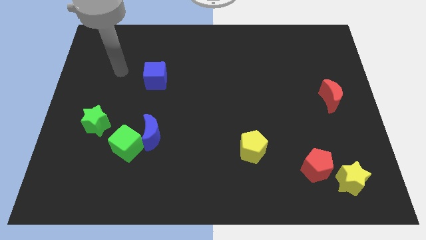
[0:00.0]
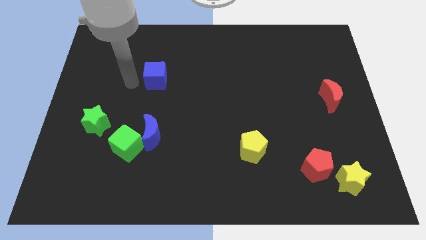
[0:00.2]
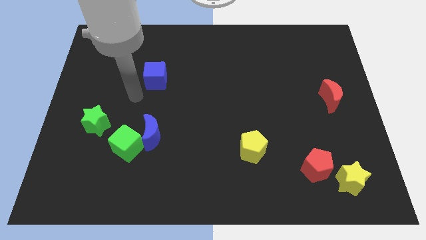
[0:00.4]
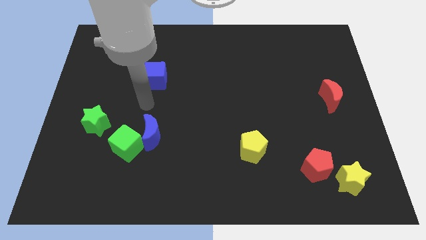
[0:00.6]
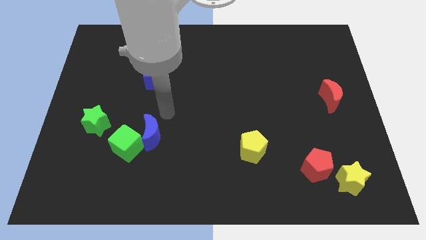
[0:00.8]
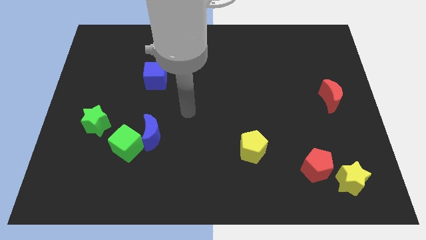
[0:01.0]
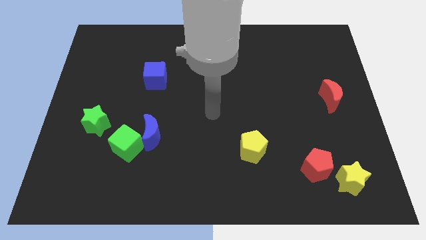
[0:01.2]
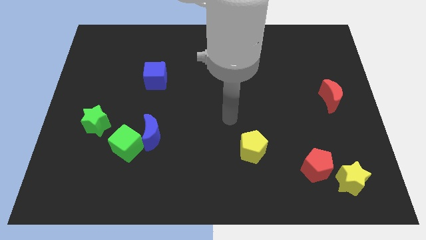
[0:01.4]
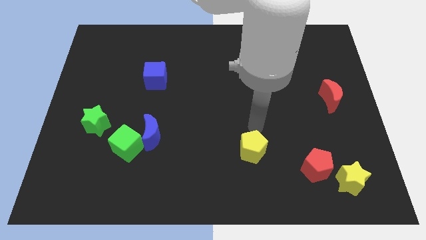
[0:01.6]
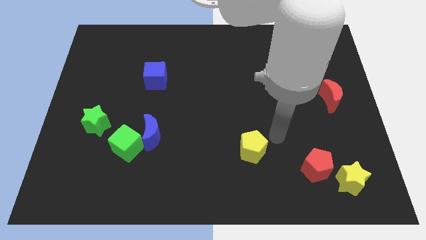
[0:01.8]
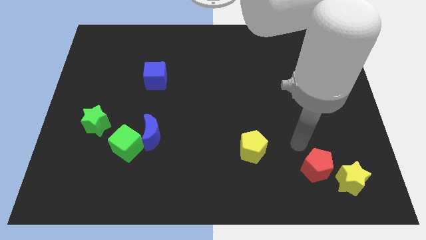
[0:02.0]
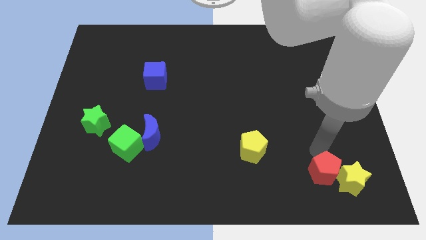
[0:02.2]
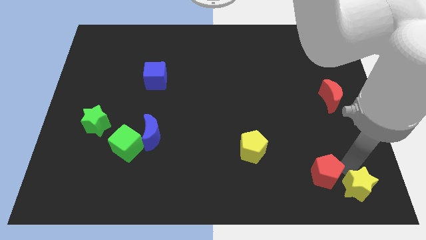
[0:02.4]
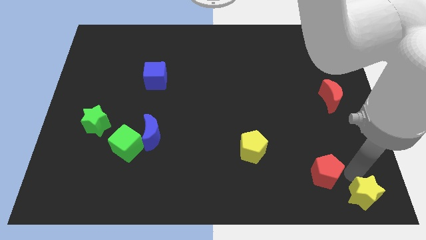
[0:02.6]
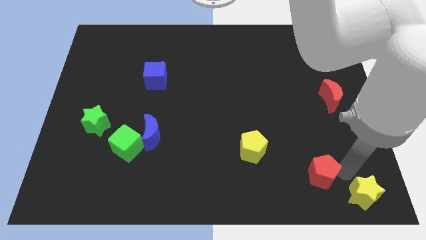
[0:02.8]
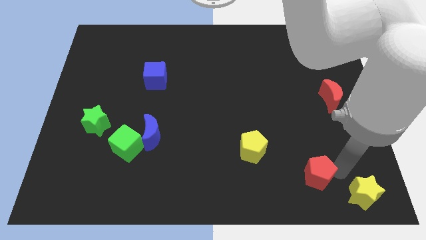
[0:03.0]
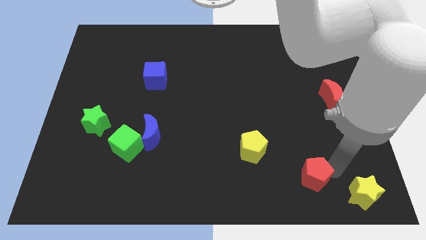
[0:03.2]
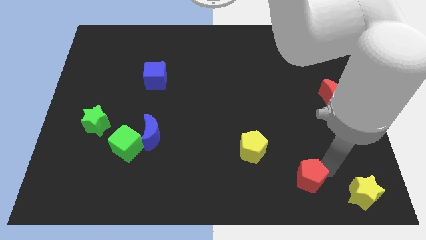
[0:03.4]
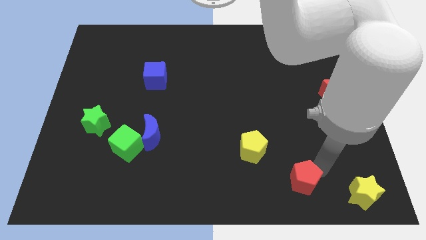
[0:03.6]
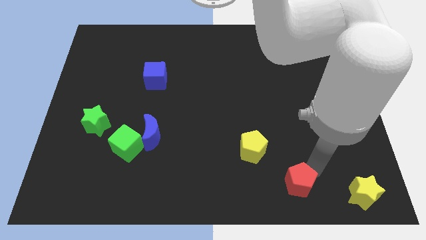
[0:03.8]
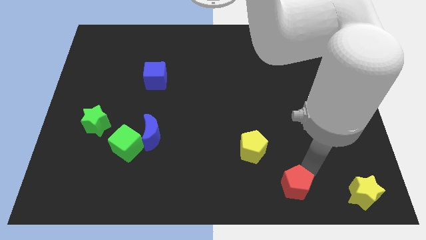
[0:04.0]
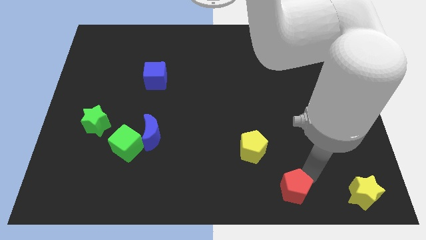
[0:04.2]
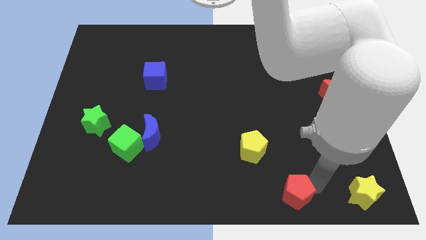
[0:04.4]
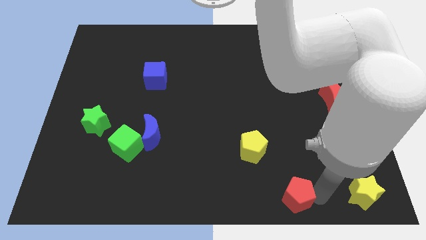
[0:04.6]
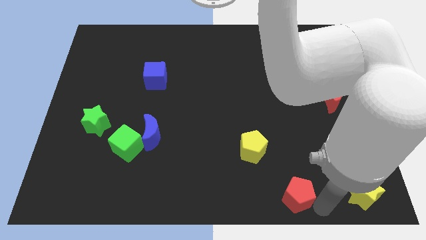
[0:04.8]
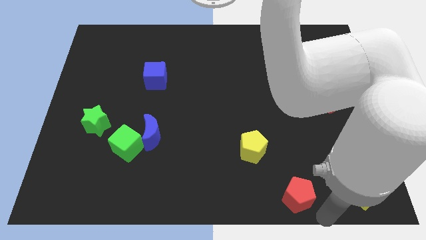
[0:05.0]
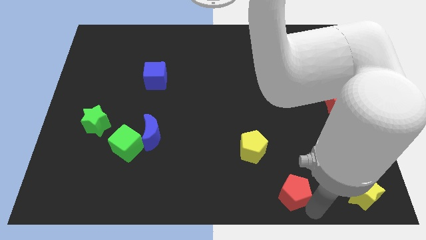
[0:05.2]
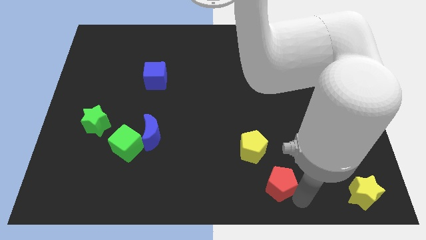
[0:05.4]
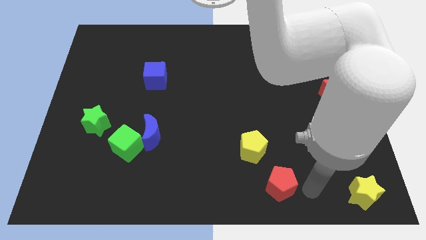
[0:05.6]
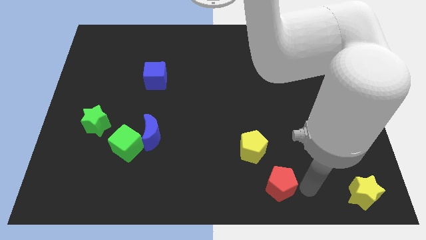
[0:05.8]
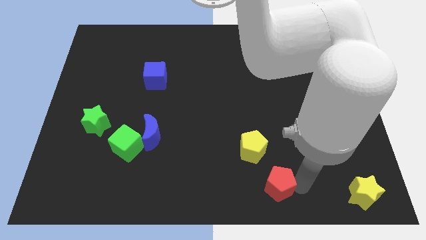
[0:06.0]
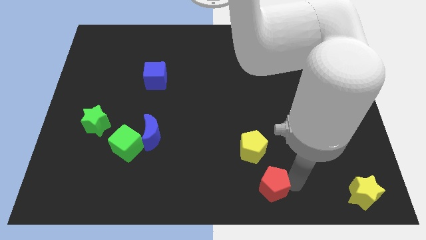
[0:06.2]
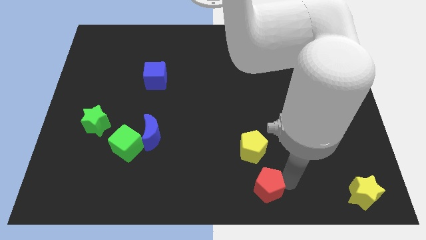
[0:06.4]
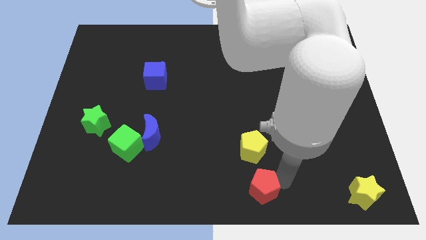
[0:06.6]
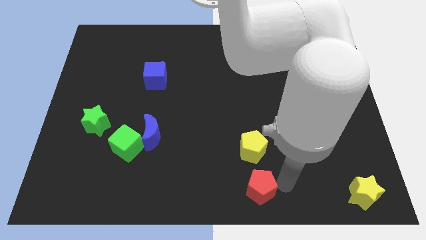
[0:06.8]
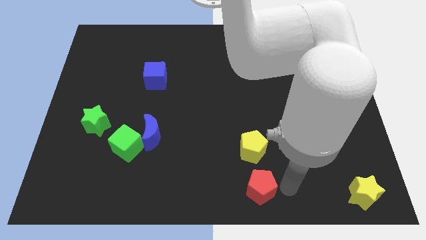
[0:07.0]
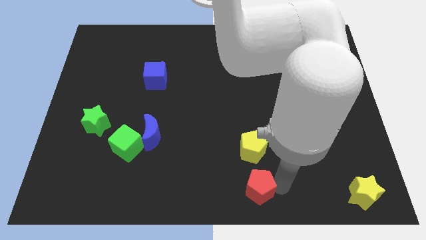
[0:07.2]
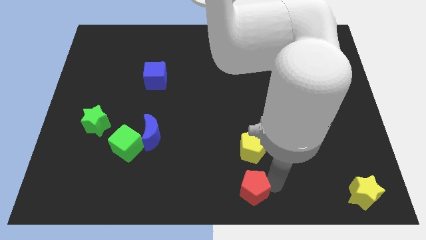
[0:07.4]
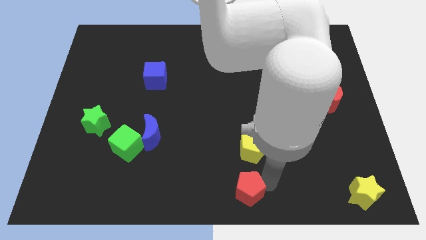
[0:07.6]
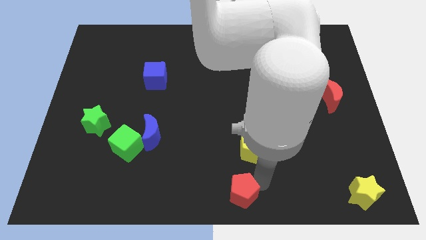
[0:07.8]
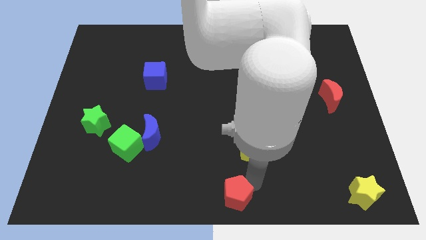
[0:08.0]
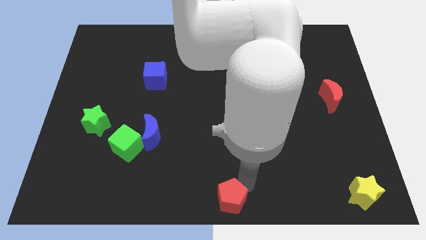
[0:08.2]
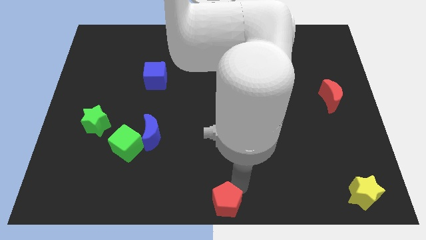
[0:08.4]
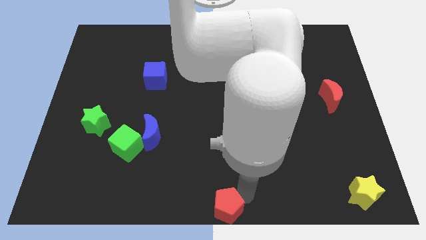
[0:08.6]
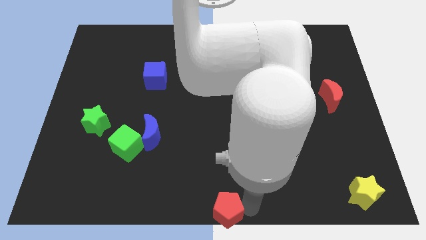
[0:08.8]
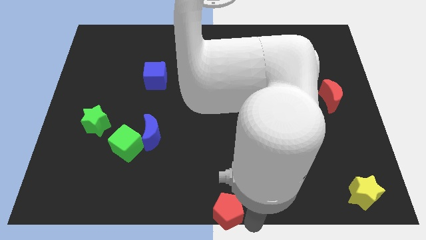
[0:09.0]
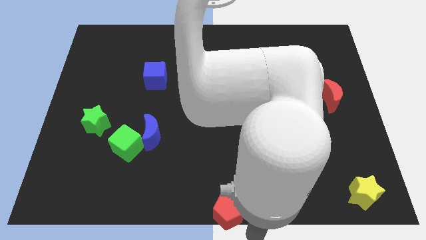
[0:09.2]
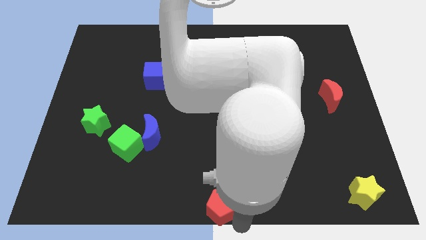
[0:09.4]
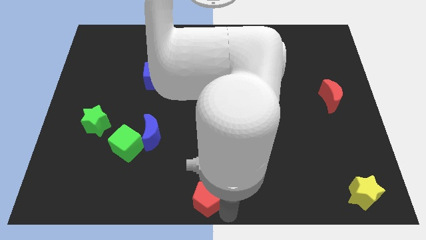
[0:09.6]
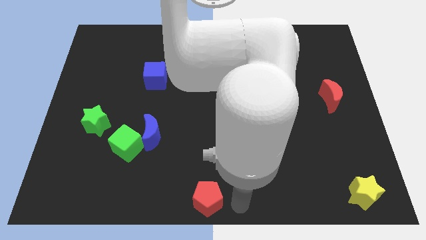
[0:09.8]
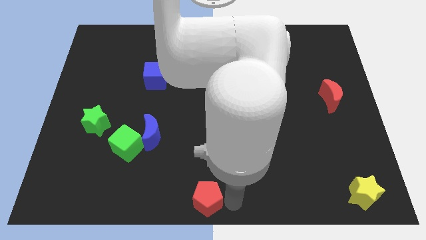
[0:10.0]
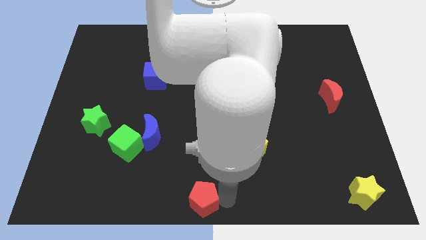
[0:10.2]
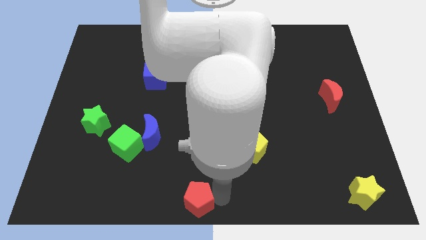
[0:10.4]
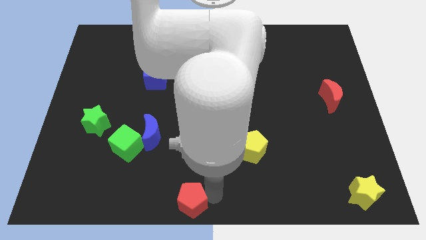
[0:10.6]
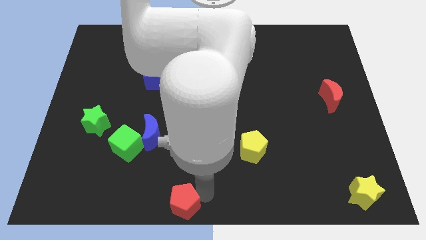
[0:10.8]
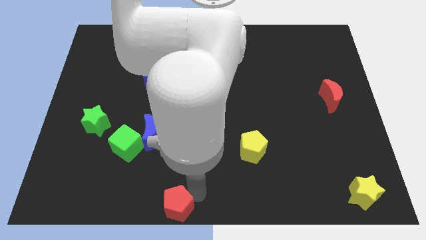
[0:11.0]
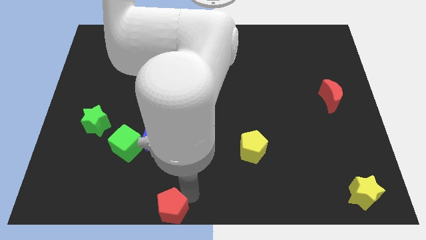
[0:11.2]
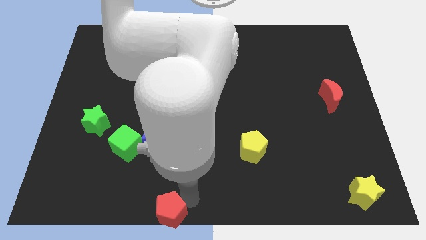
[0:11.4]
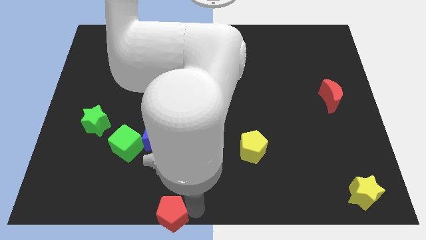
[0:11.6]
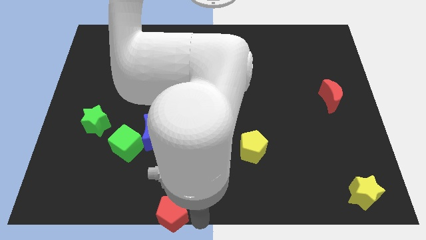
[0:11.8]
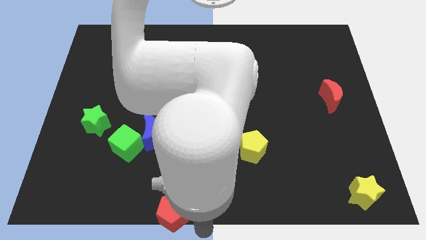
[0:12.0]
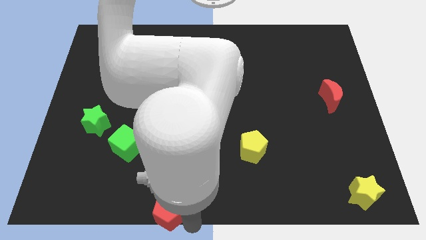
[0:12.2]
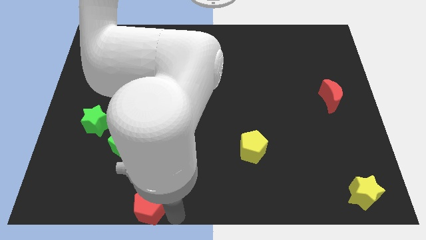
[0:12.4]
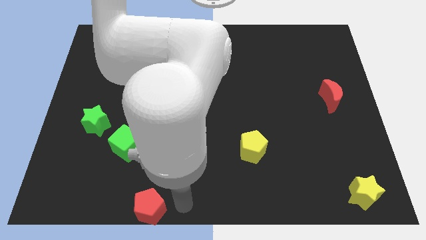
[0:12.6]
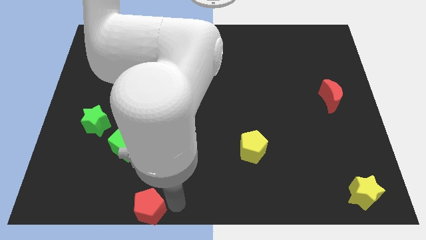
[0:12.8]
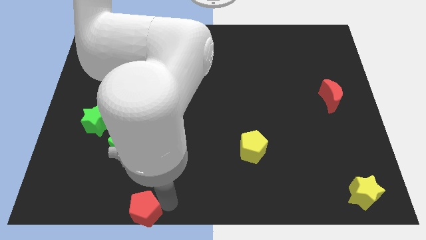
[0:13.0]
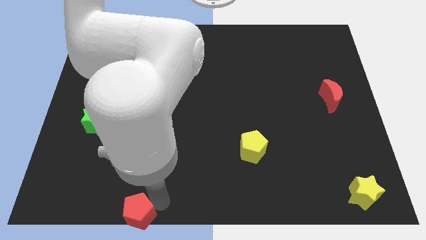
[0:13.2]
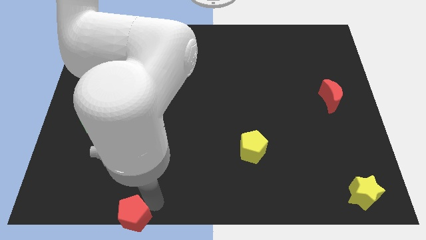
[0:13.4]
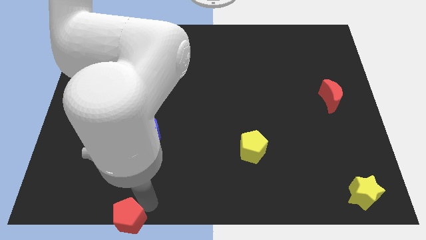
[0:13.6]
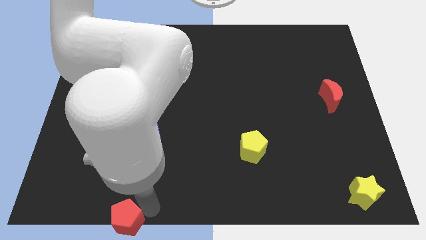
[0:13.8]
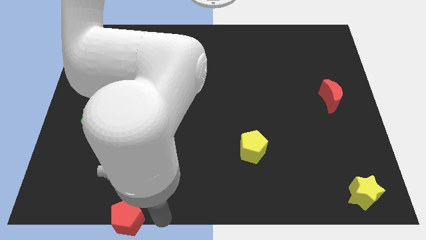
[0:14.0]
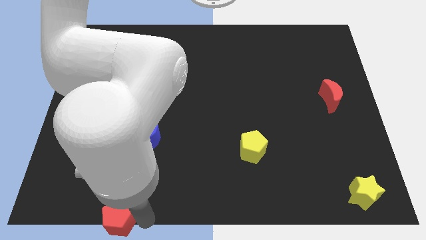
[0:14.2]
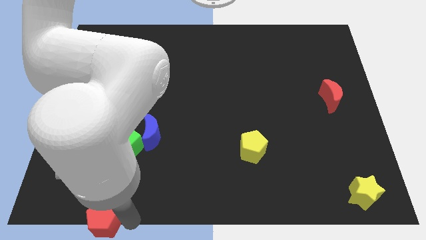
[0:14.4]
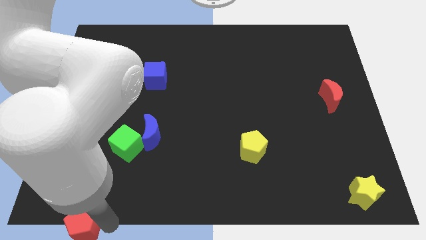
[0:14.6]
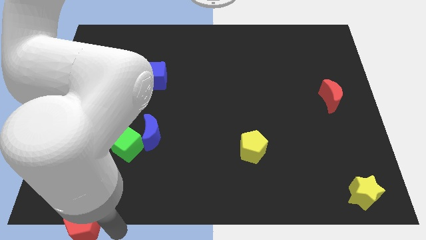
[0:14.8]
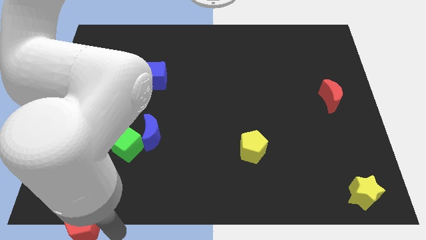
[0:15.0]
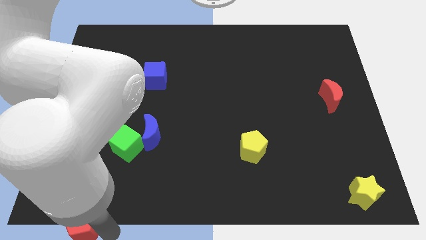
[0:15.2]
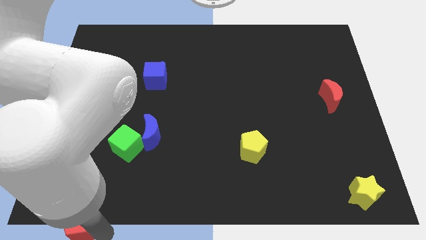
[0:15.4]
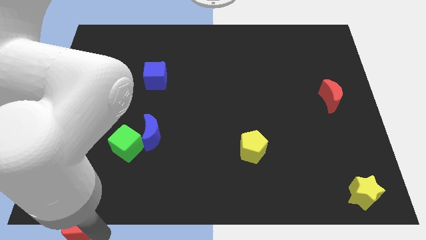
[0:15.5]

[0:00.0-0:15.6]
push the red pentagon to the lower left corner
